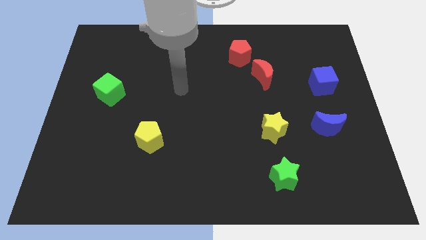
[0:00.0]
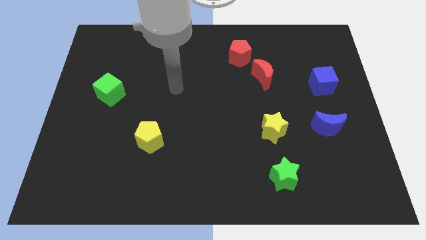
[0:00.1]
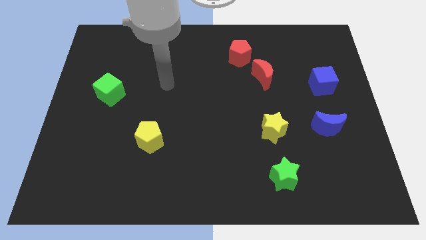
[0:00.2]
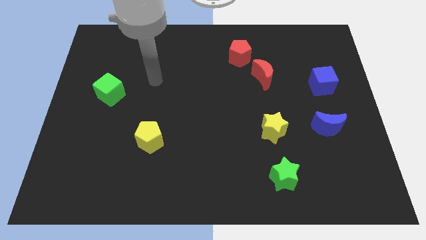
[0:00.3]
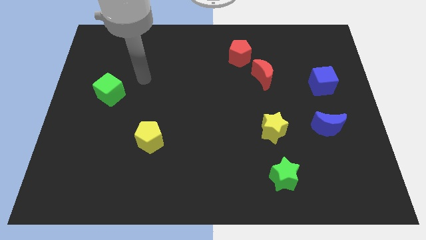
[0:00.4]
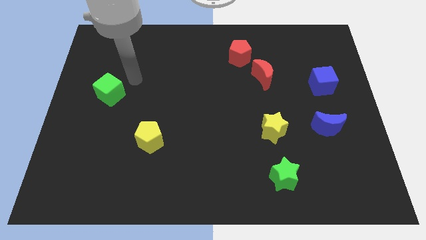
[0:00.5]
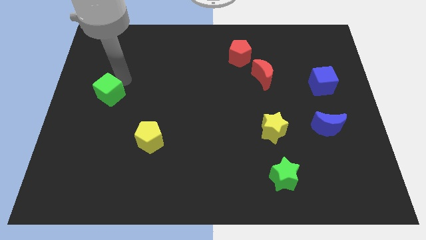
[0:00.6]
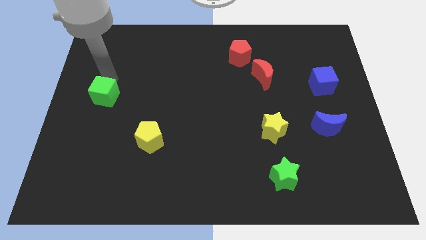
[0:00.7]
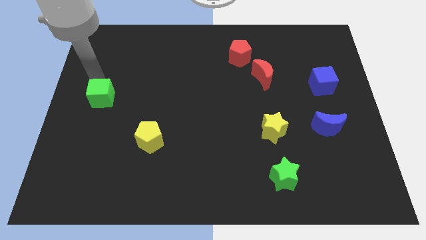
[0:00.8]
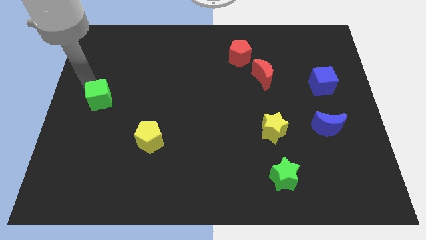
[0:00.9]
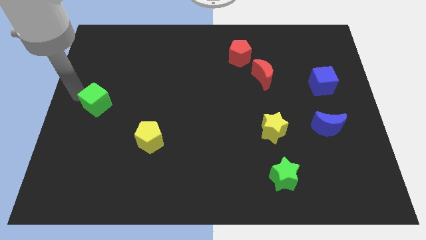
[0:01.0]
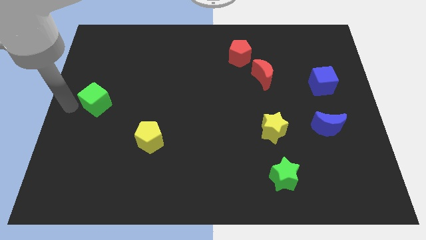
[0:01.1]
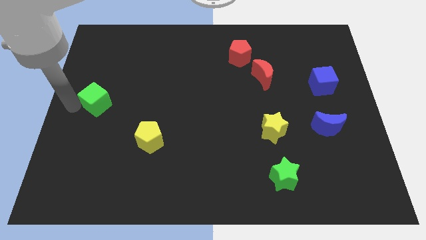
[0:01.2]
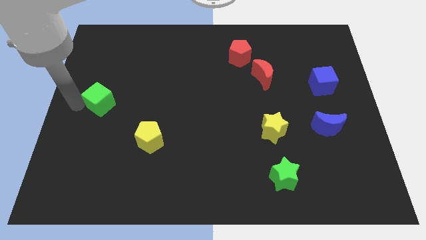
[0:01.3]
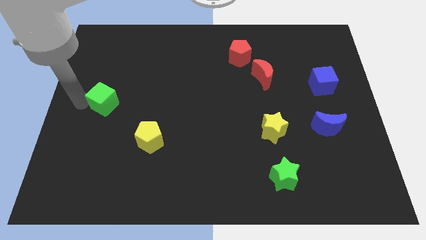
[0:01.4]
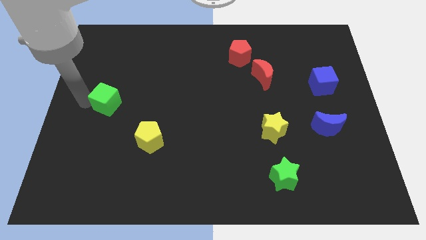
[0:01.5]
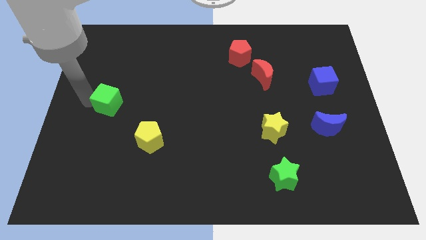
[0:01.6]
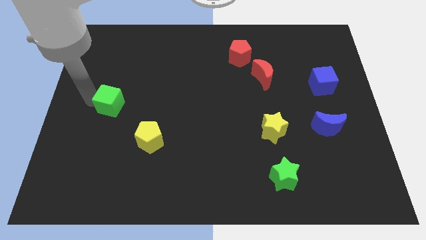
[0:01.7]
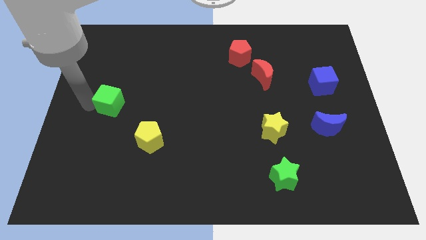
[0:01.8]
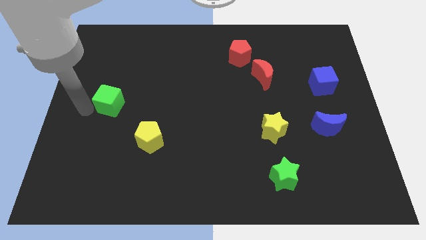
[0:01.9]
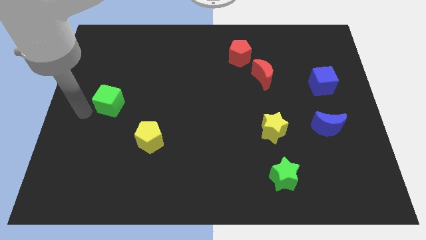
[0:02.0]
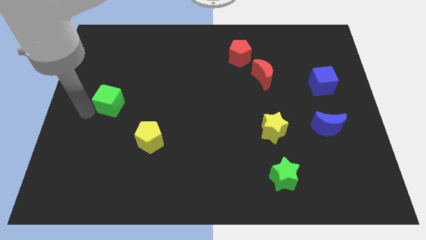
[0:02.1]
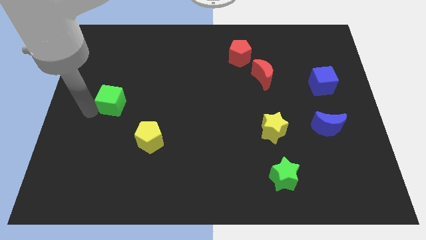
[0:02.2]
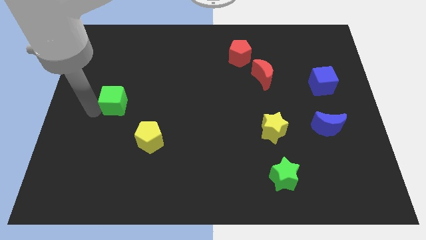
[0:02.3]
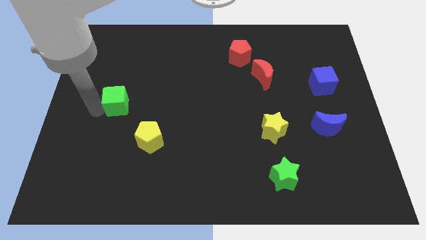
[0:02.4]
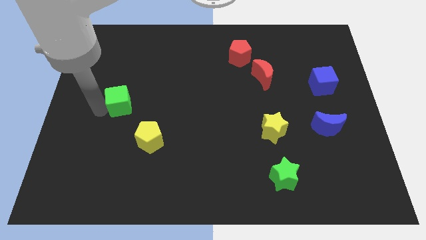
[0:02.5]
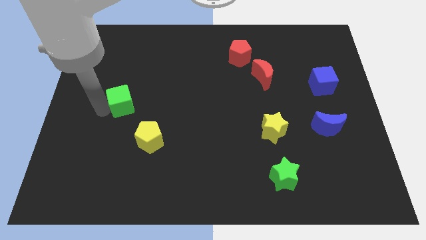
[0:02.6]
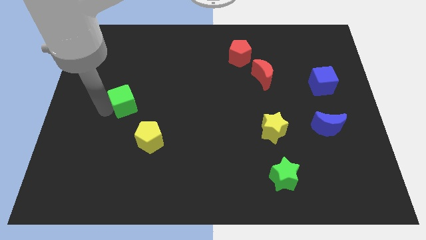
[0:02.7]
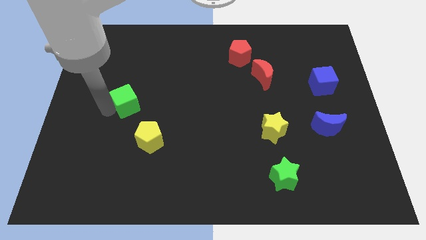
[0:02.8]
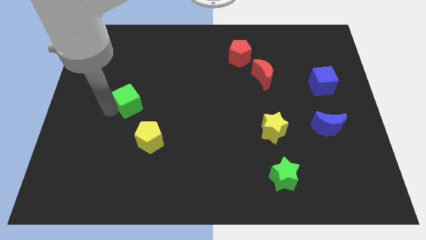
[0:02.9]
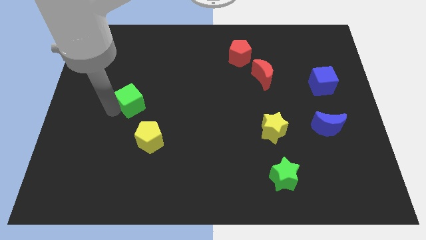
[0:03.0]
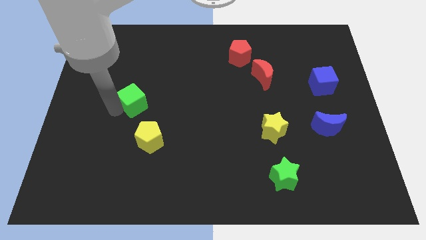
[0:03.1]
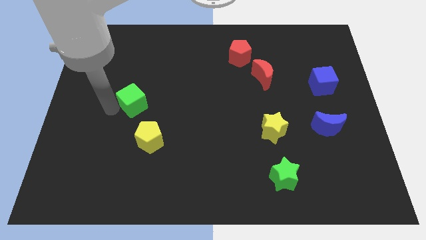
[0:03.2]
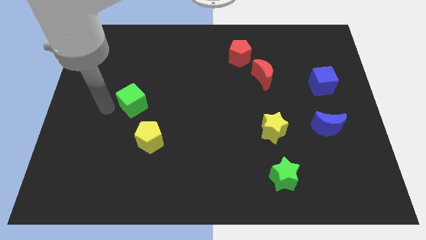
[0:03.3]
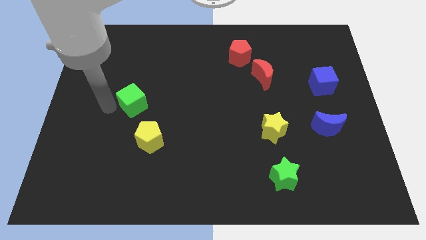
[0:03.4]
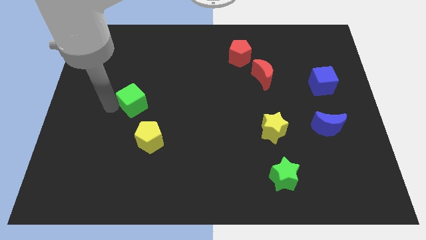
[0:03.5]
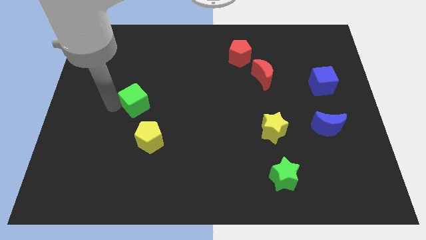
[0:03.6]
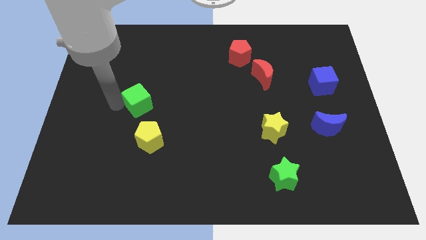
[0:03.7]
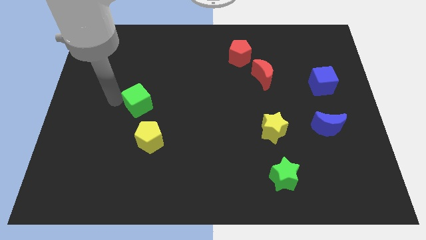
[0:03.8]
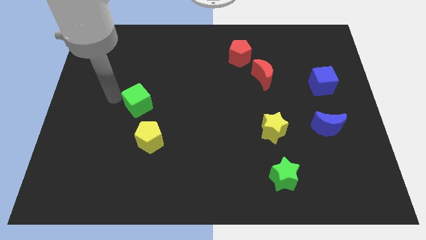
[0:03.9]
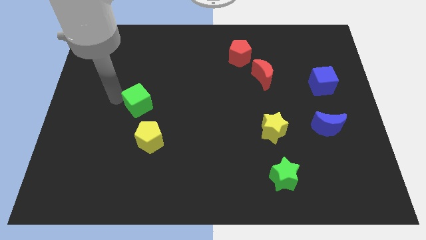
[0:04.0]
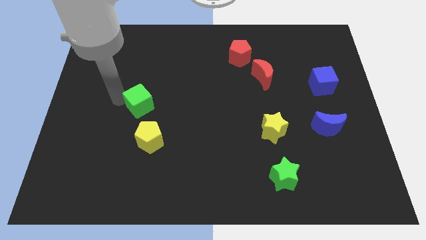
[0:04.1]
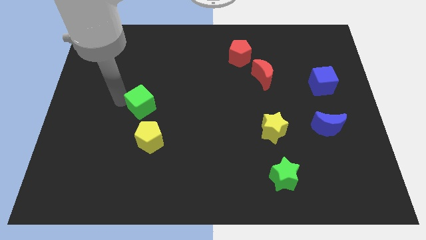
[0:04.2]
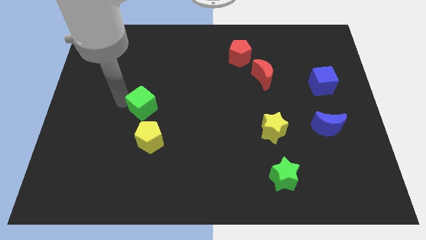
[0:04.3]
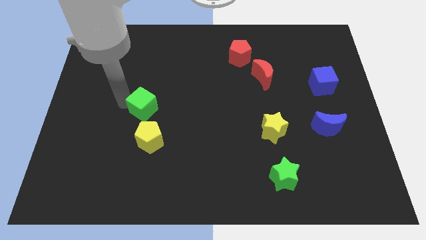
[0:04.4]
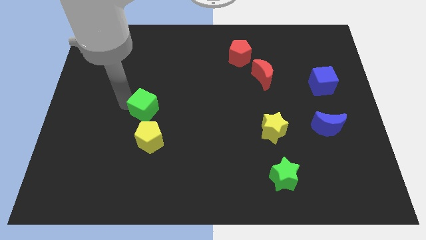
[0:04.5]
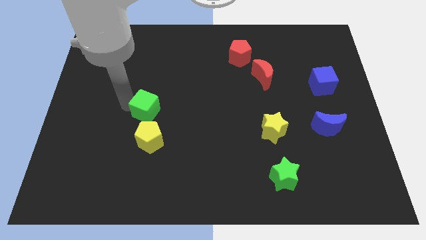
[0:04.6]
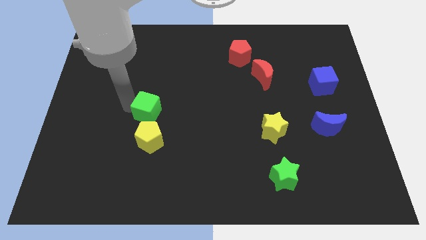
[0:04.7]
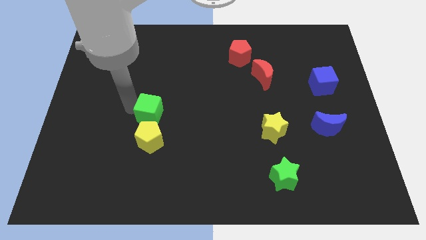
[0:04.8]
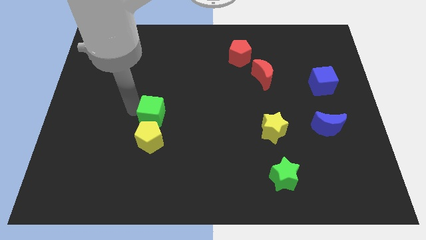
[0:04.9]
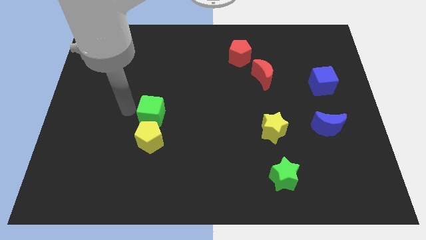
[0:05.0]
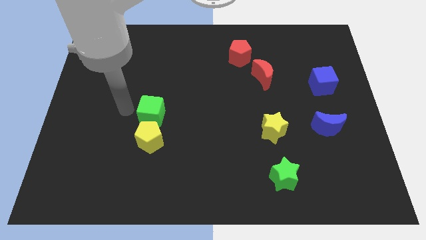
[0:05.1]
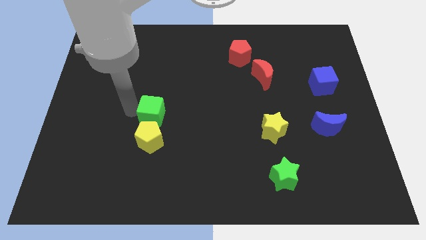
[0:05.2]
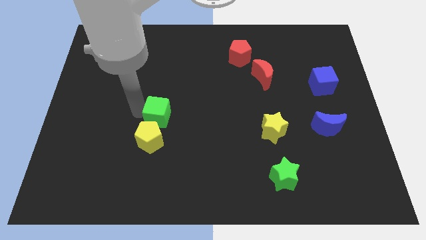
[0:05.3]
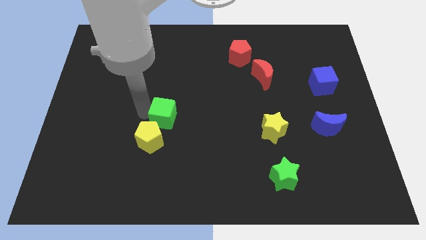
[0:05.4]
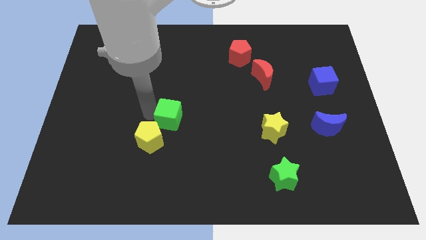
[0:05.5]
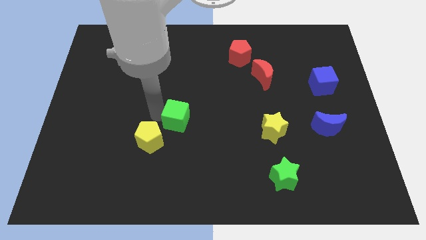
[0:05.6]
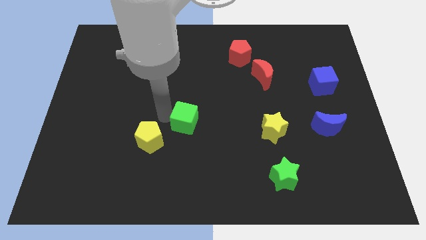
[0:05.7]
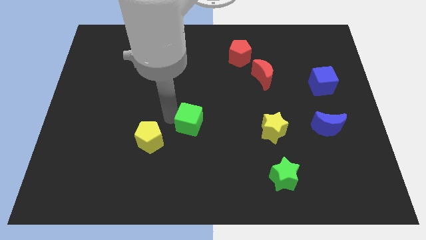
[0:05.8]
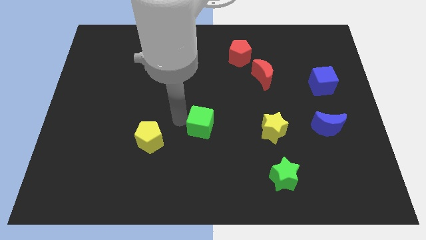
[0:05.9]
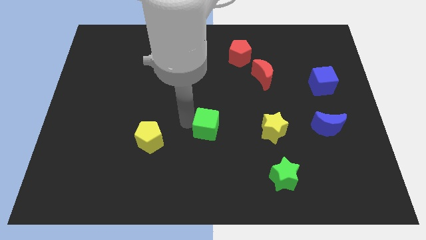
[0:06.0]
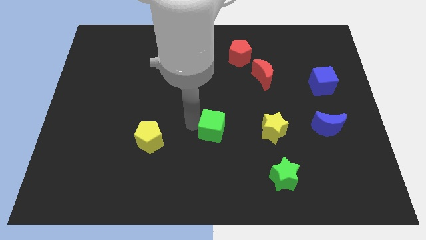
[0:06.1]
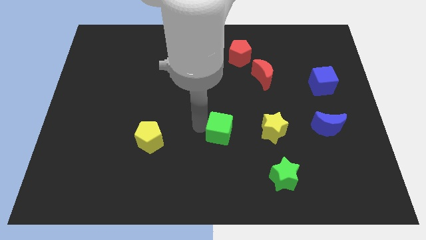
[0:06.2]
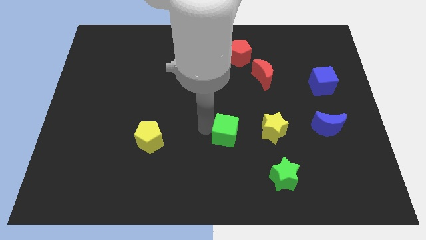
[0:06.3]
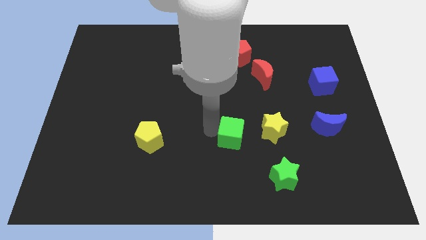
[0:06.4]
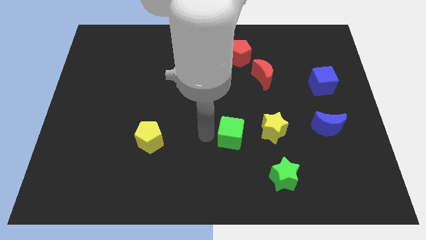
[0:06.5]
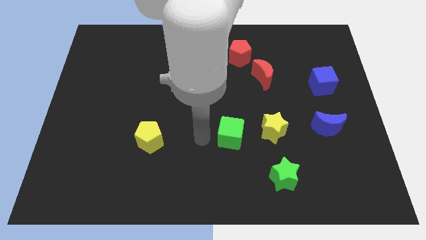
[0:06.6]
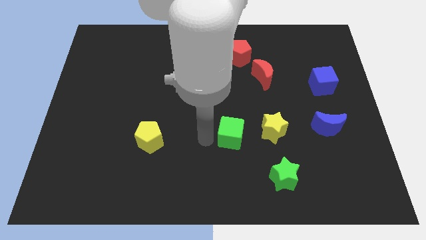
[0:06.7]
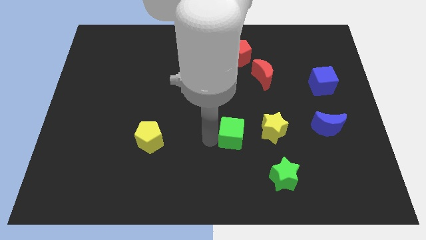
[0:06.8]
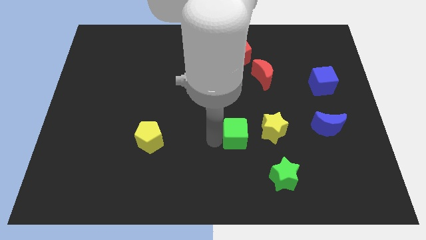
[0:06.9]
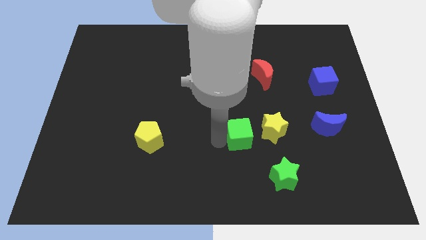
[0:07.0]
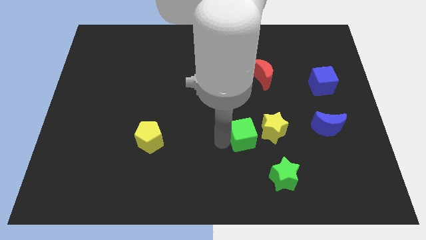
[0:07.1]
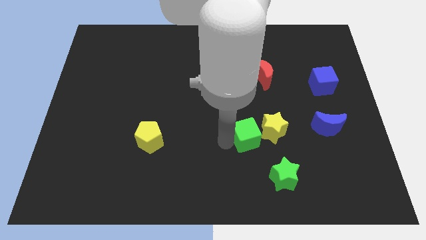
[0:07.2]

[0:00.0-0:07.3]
push the green cube to the yellow star

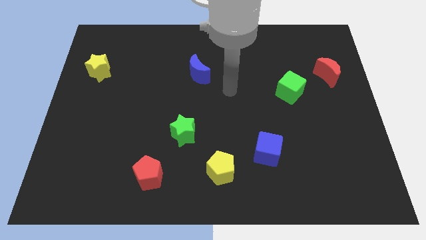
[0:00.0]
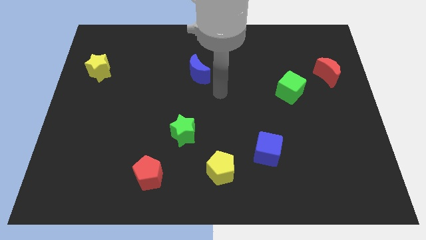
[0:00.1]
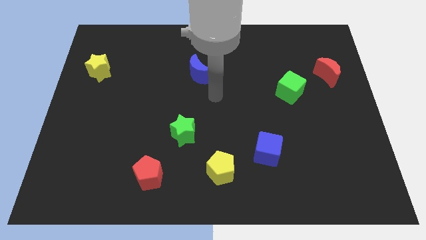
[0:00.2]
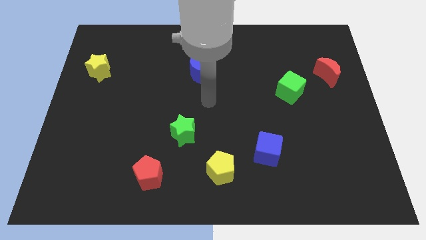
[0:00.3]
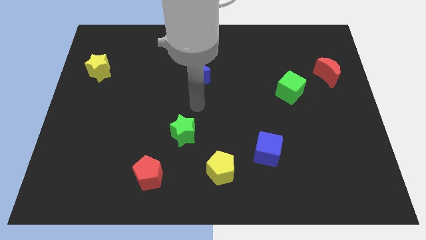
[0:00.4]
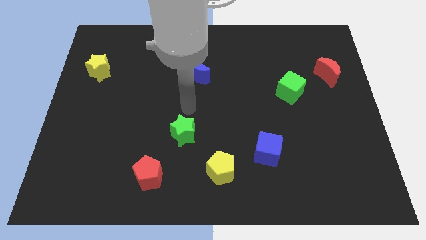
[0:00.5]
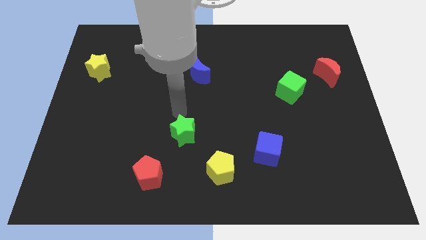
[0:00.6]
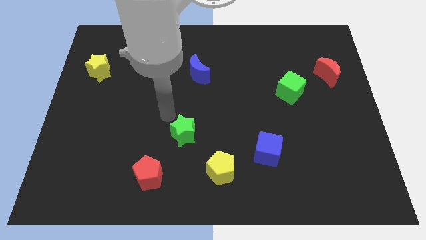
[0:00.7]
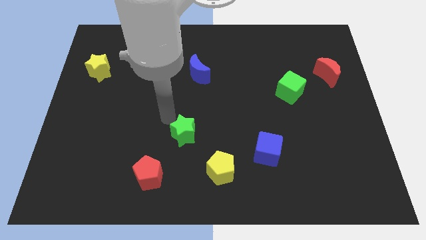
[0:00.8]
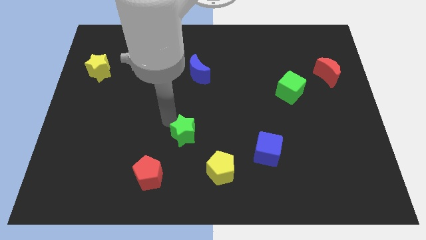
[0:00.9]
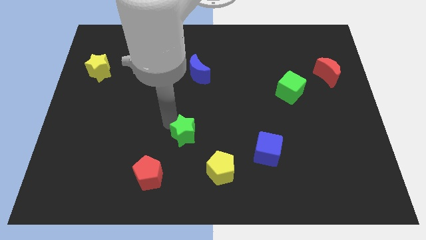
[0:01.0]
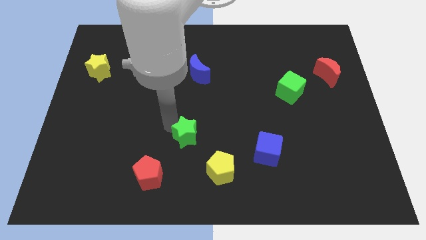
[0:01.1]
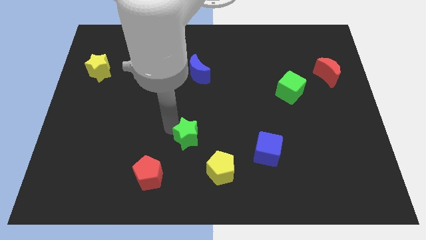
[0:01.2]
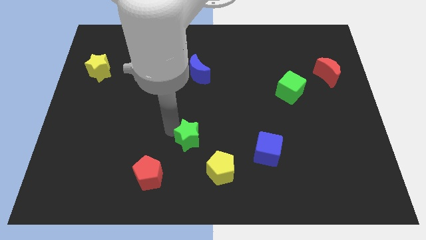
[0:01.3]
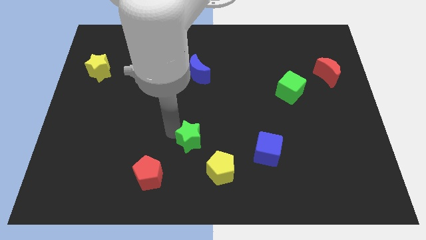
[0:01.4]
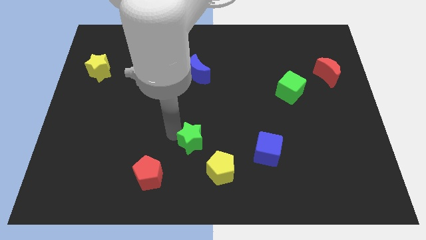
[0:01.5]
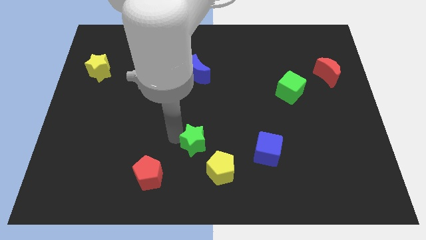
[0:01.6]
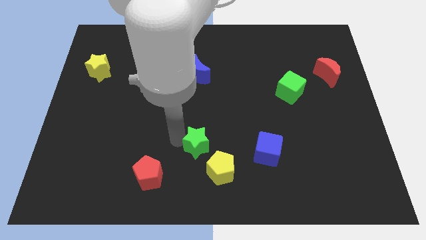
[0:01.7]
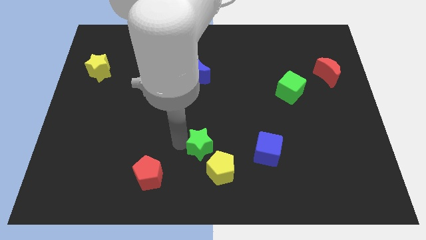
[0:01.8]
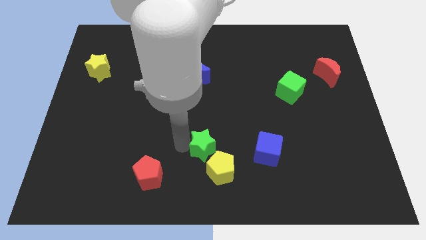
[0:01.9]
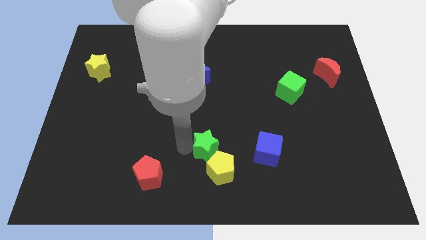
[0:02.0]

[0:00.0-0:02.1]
slide the green star towards the yellow pentagon
